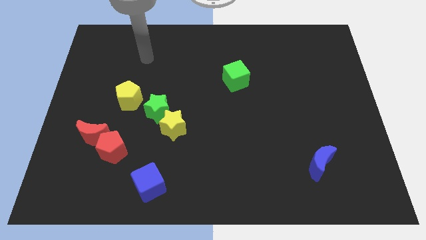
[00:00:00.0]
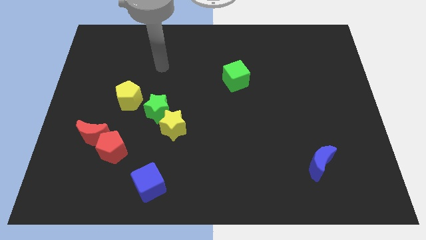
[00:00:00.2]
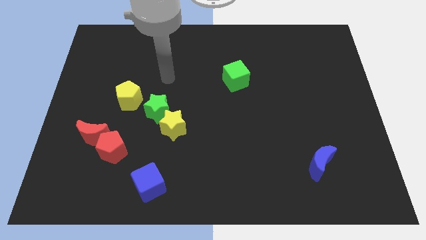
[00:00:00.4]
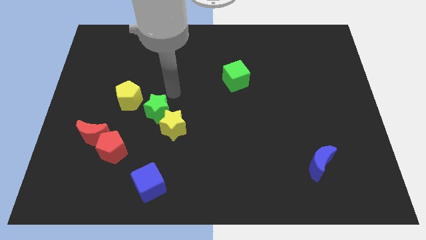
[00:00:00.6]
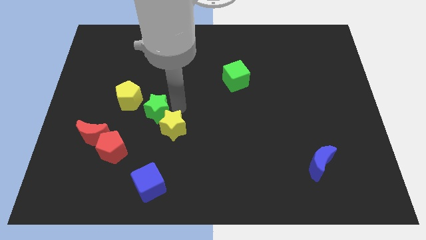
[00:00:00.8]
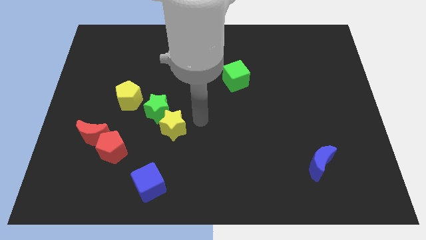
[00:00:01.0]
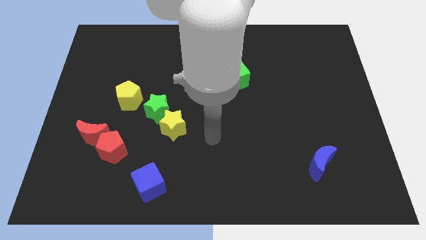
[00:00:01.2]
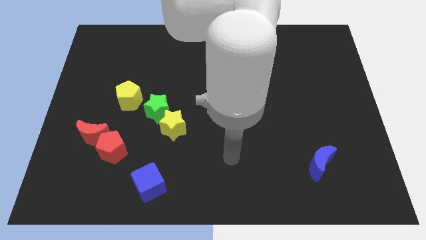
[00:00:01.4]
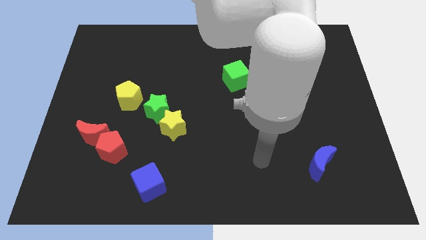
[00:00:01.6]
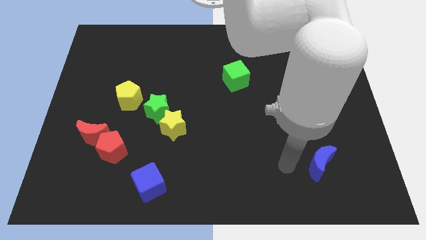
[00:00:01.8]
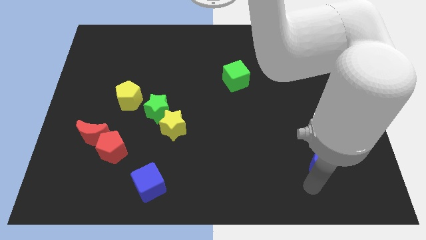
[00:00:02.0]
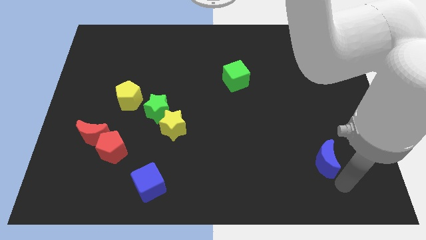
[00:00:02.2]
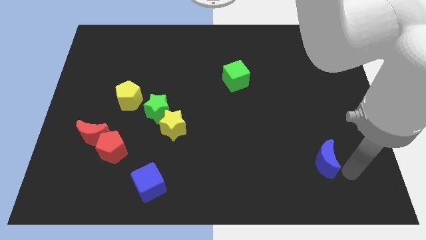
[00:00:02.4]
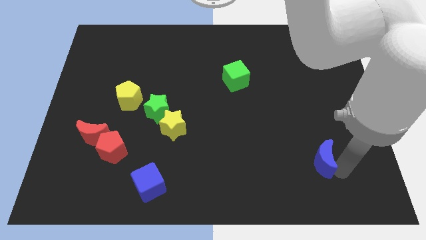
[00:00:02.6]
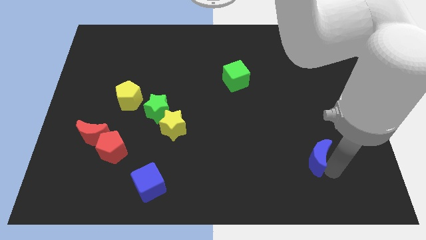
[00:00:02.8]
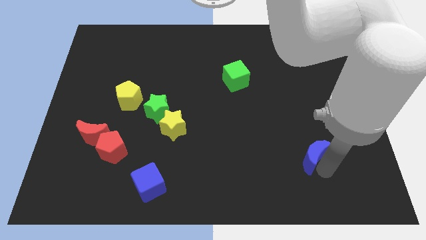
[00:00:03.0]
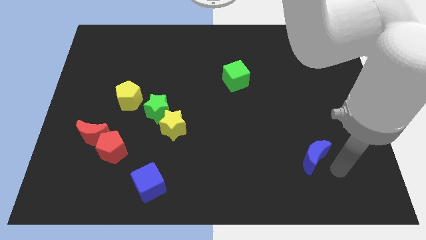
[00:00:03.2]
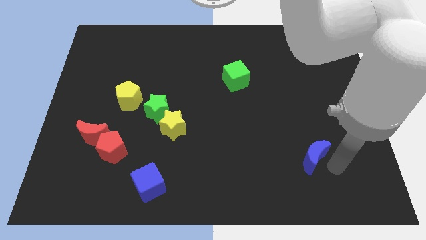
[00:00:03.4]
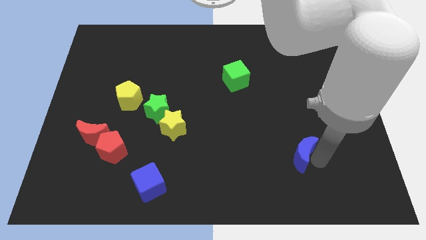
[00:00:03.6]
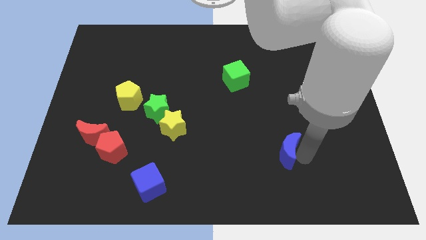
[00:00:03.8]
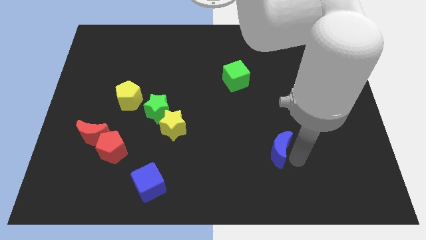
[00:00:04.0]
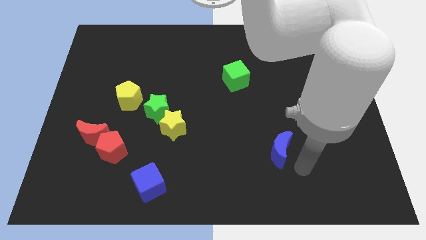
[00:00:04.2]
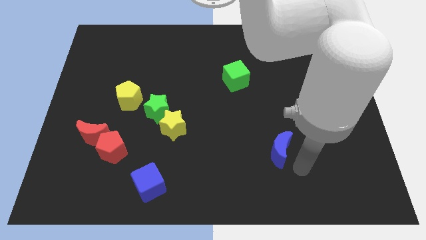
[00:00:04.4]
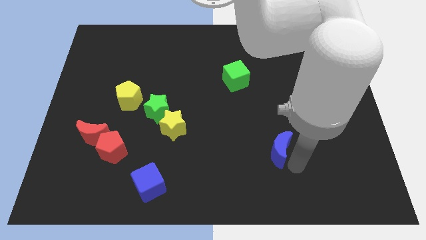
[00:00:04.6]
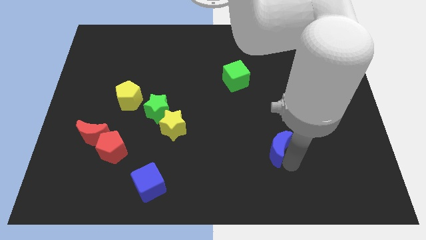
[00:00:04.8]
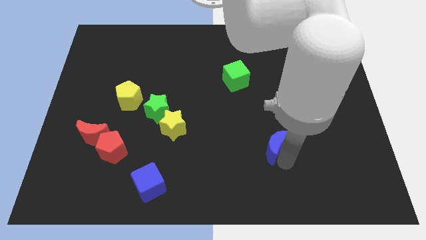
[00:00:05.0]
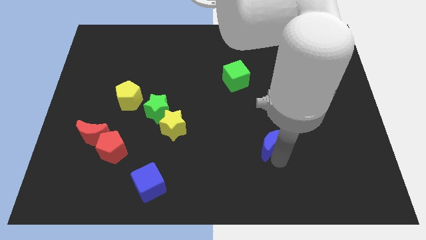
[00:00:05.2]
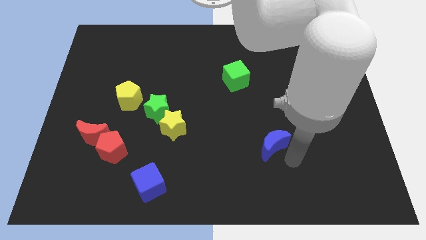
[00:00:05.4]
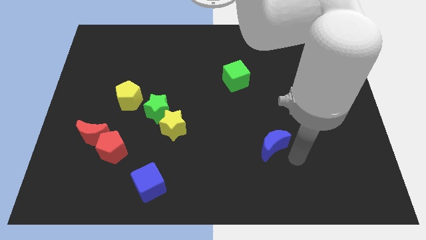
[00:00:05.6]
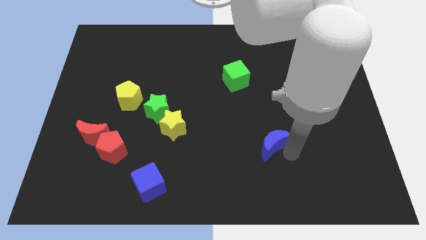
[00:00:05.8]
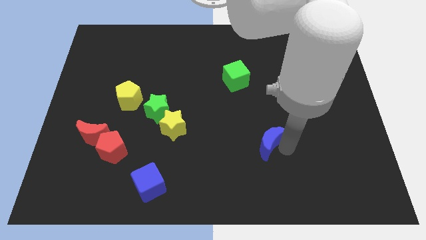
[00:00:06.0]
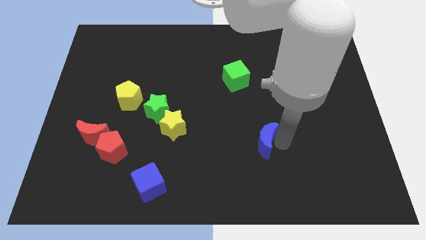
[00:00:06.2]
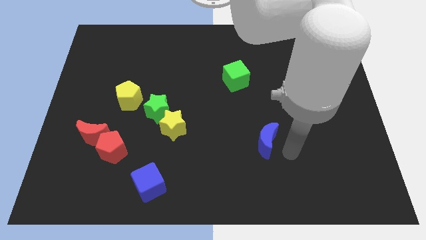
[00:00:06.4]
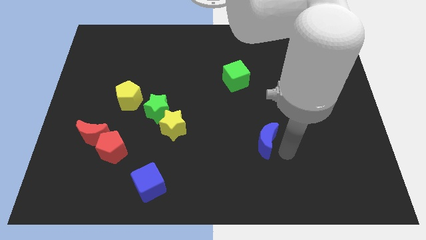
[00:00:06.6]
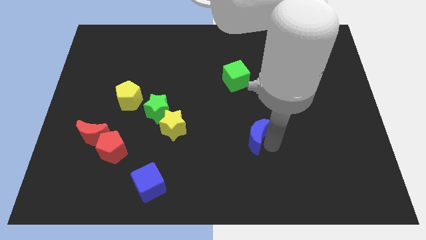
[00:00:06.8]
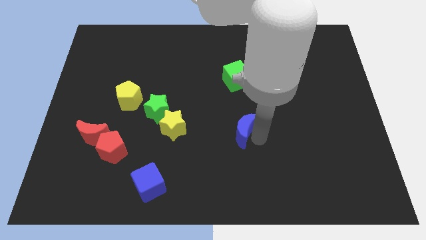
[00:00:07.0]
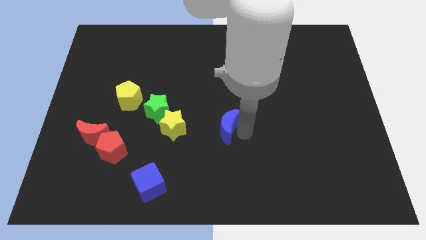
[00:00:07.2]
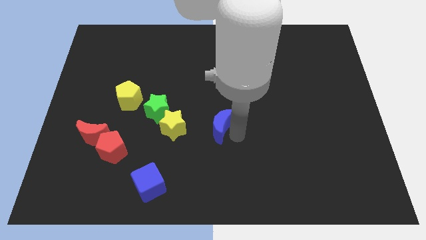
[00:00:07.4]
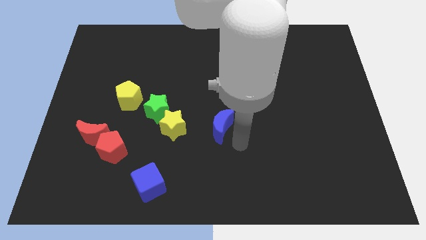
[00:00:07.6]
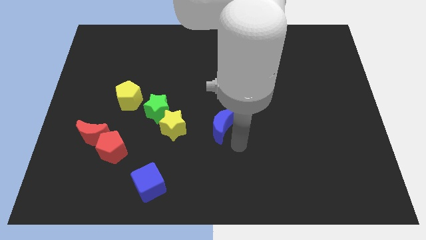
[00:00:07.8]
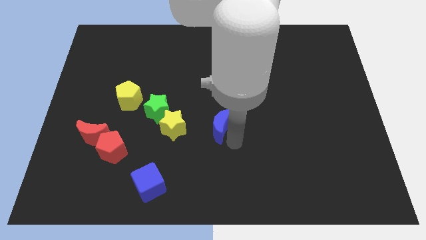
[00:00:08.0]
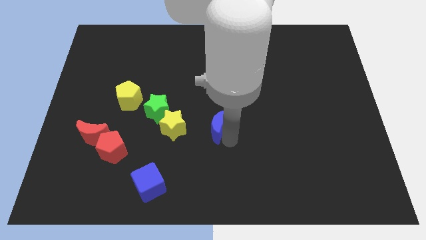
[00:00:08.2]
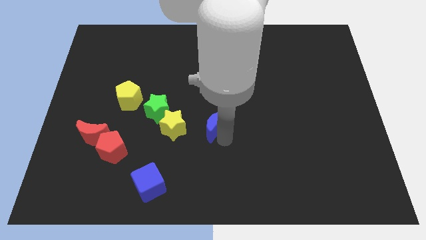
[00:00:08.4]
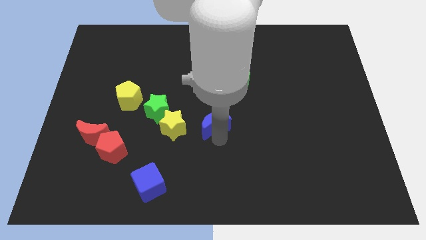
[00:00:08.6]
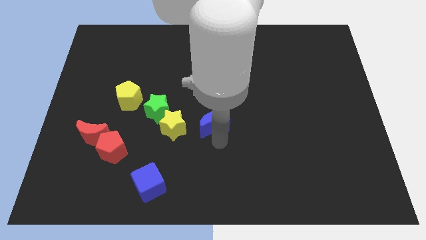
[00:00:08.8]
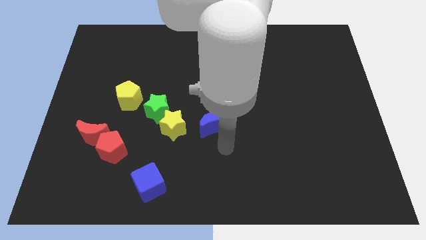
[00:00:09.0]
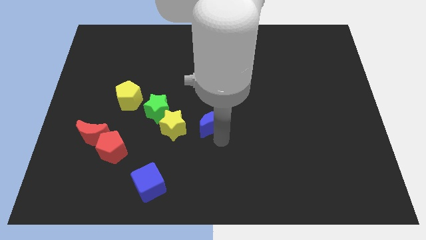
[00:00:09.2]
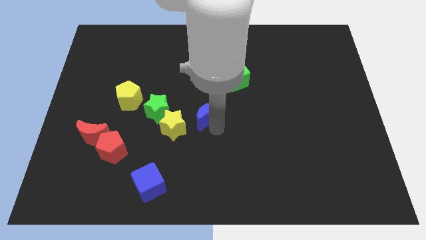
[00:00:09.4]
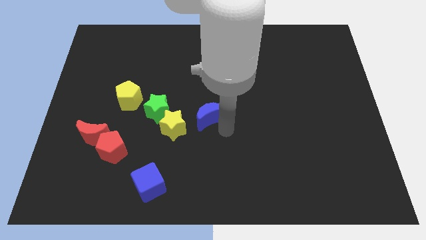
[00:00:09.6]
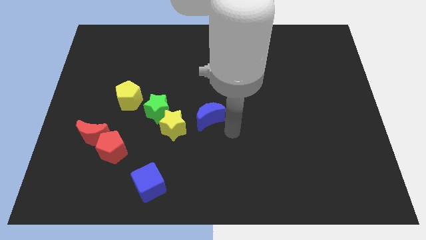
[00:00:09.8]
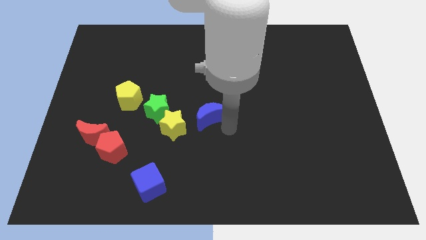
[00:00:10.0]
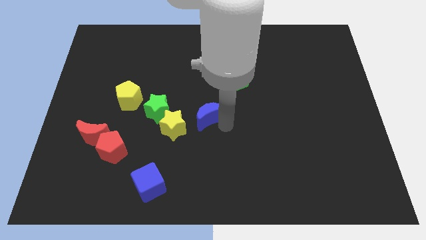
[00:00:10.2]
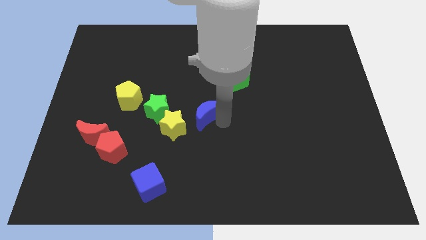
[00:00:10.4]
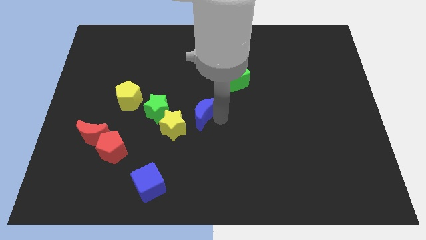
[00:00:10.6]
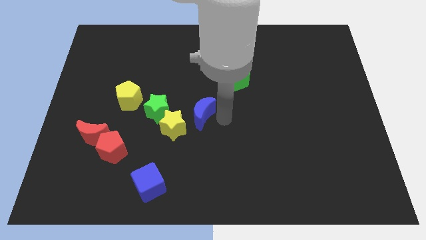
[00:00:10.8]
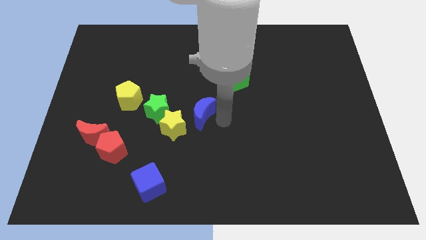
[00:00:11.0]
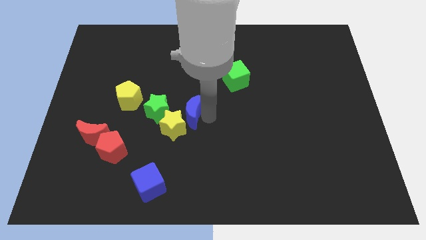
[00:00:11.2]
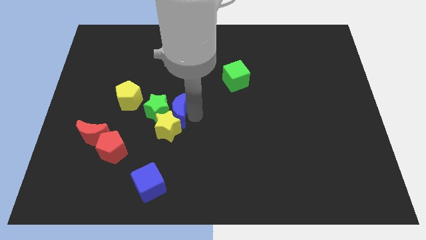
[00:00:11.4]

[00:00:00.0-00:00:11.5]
put the blue moon close to the green star

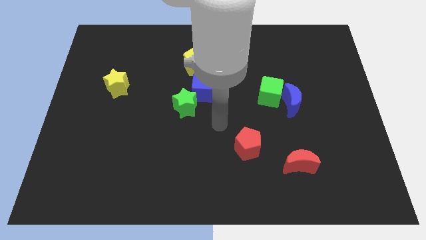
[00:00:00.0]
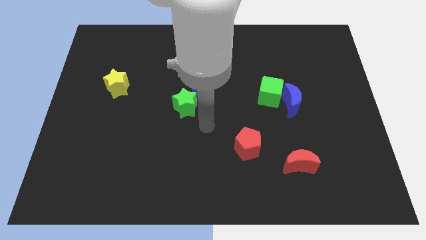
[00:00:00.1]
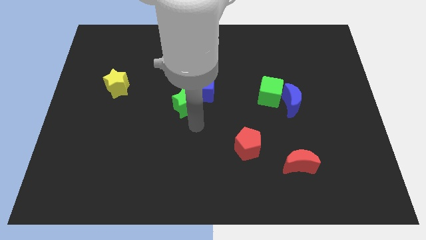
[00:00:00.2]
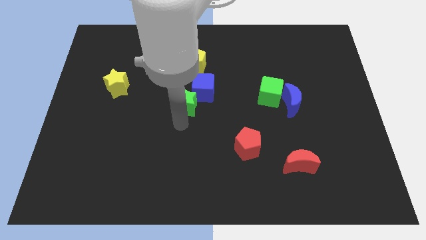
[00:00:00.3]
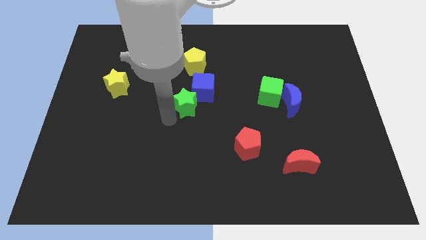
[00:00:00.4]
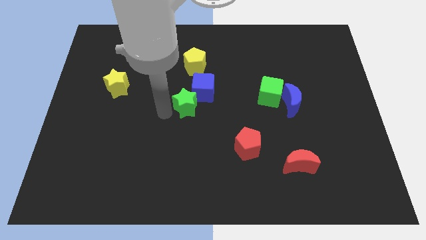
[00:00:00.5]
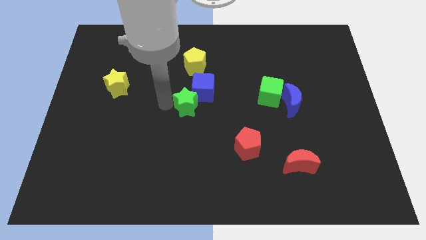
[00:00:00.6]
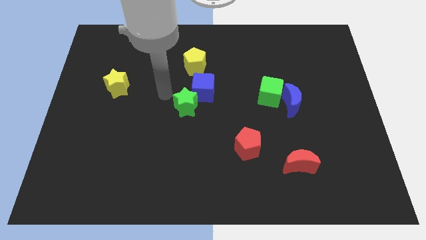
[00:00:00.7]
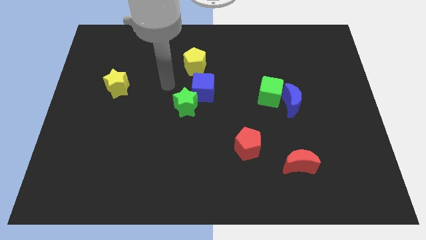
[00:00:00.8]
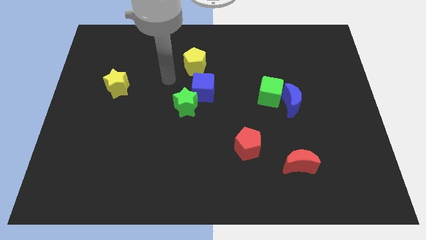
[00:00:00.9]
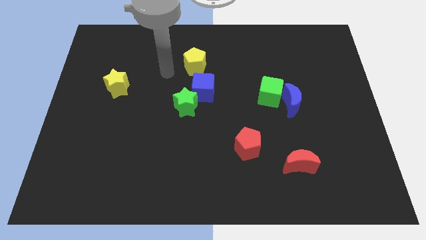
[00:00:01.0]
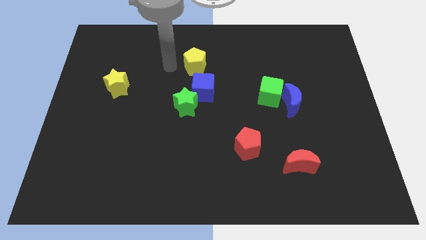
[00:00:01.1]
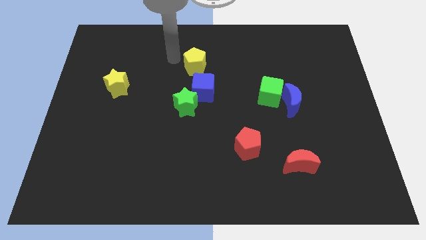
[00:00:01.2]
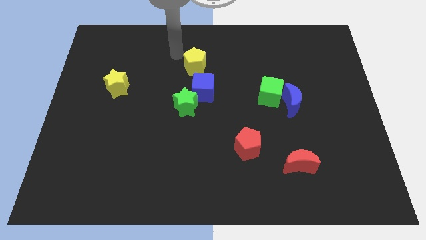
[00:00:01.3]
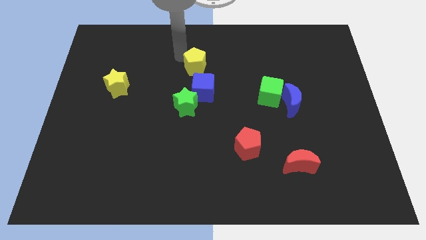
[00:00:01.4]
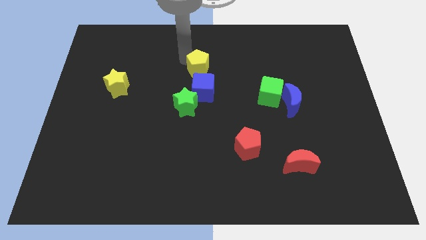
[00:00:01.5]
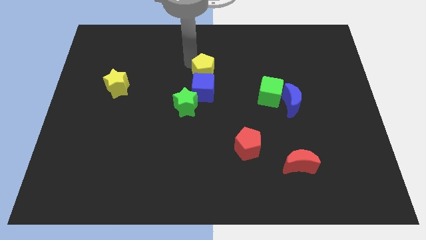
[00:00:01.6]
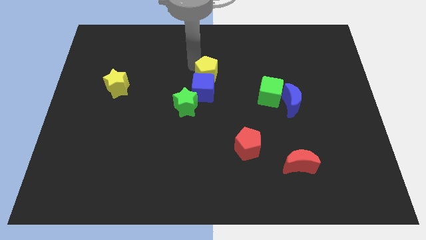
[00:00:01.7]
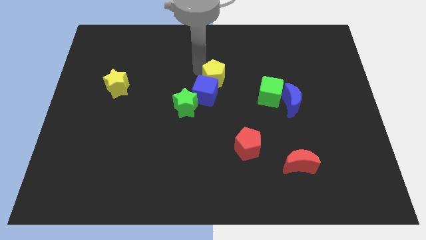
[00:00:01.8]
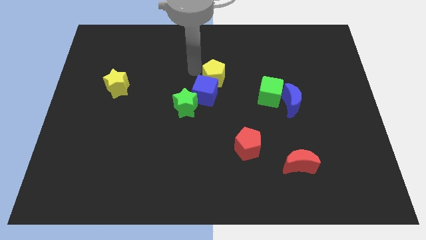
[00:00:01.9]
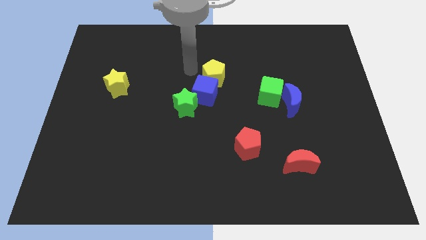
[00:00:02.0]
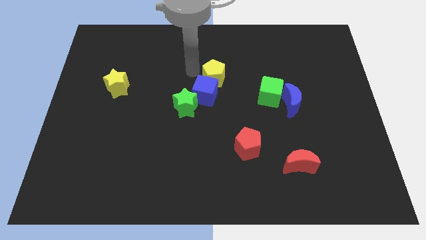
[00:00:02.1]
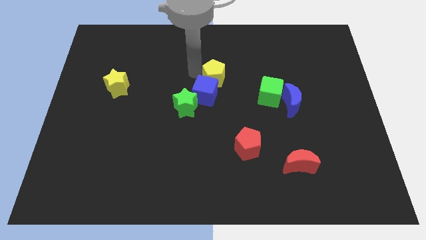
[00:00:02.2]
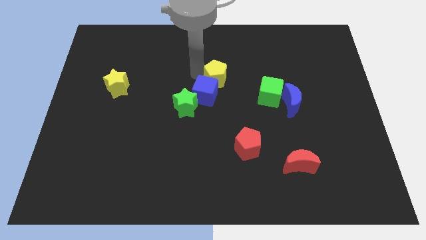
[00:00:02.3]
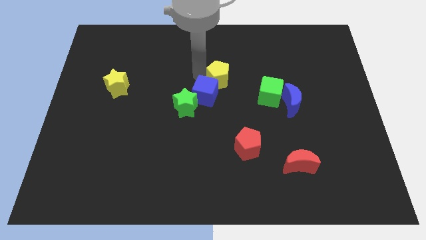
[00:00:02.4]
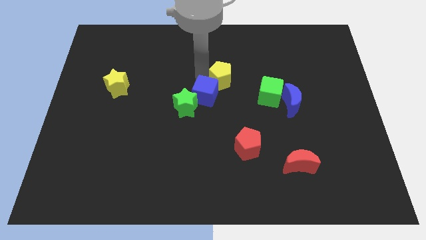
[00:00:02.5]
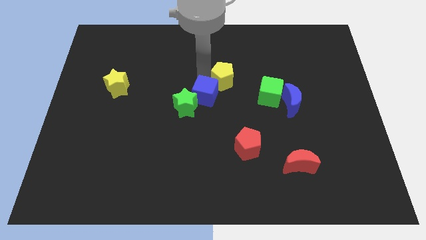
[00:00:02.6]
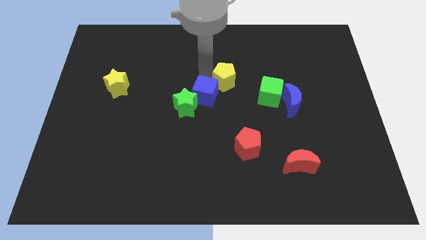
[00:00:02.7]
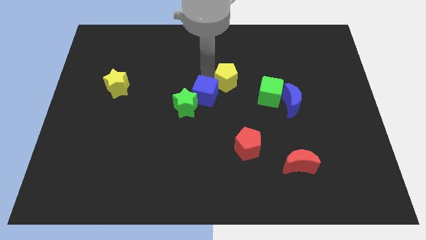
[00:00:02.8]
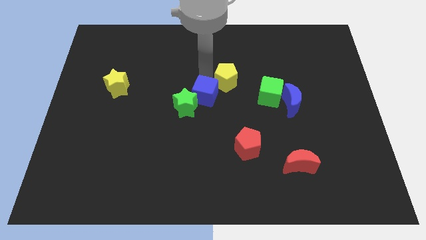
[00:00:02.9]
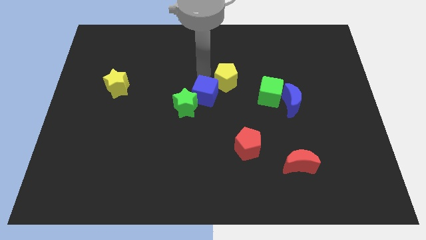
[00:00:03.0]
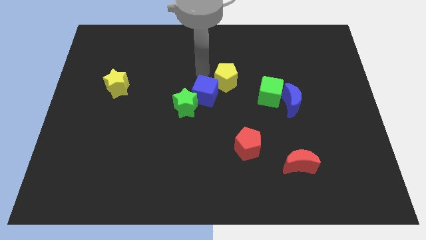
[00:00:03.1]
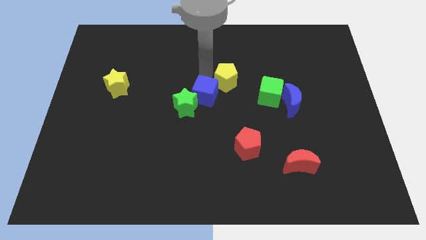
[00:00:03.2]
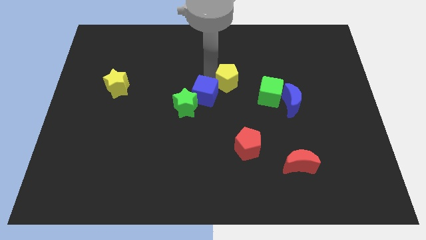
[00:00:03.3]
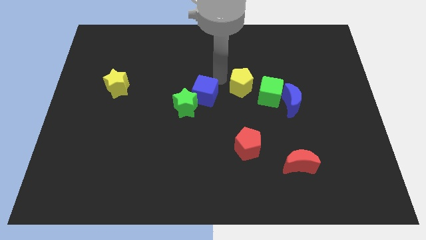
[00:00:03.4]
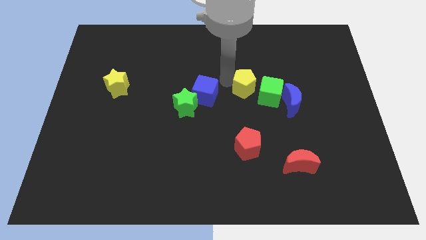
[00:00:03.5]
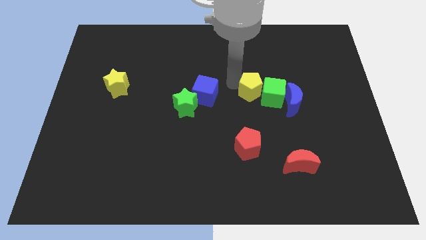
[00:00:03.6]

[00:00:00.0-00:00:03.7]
slide the yellow pentagon close to the green cube
